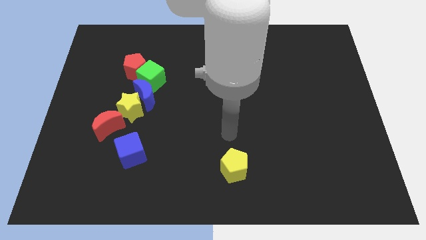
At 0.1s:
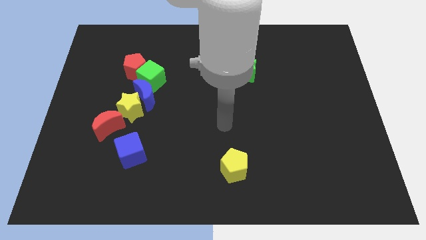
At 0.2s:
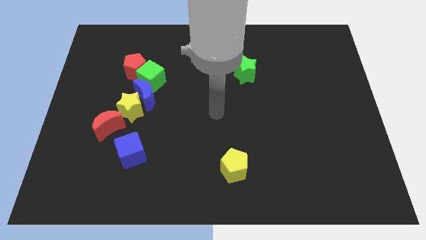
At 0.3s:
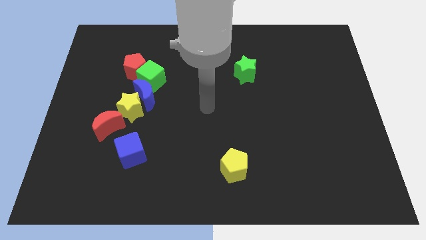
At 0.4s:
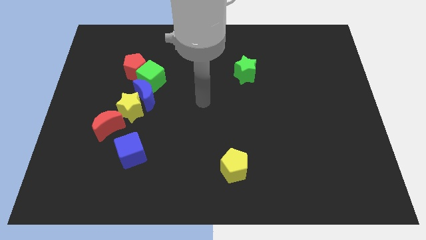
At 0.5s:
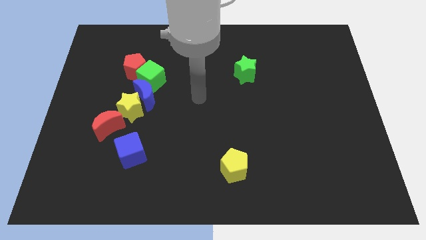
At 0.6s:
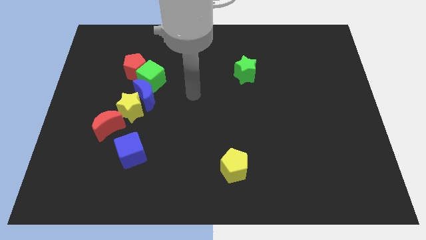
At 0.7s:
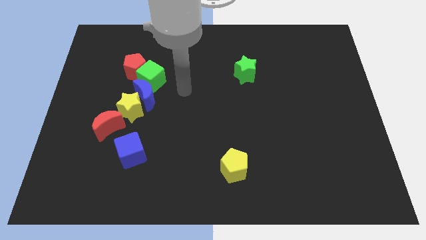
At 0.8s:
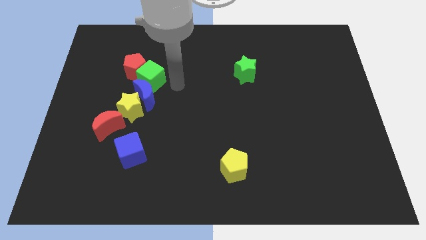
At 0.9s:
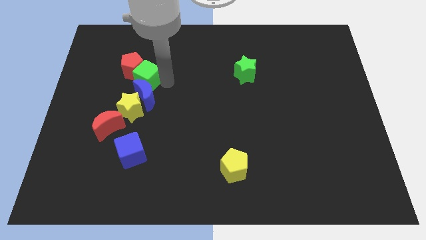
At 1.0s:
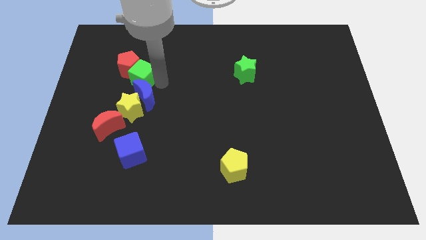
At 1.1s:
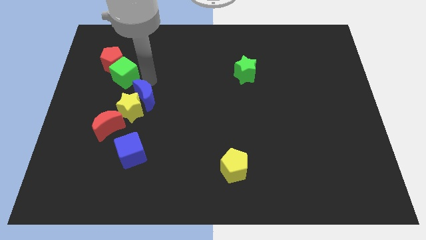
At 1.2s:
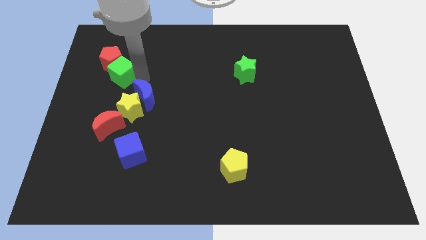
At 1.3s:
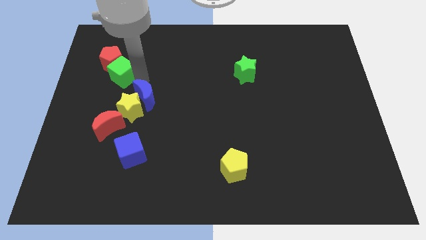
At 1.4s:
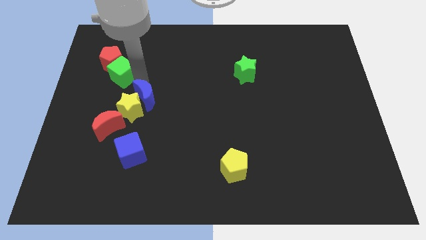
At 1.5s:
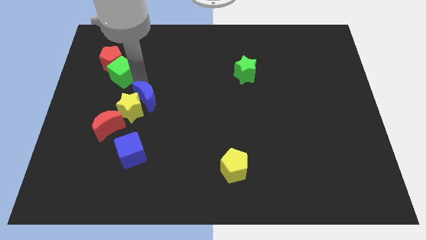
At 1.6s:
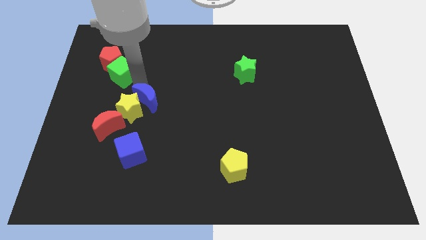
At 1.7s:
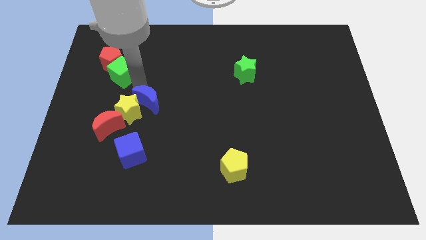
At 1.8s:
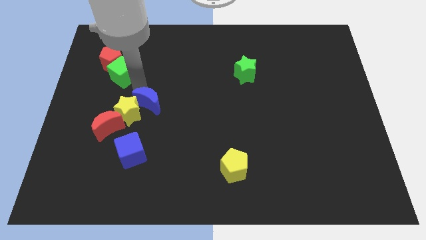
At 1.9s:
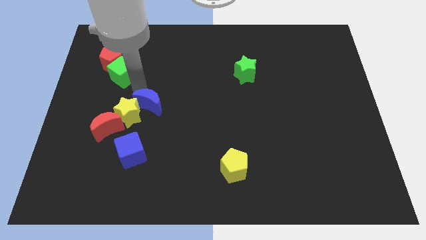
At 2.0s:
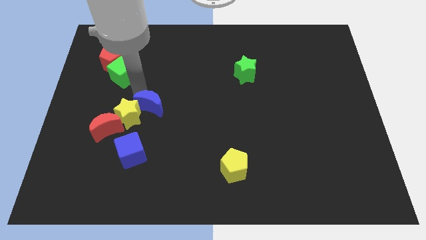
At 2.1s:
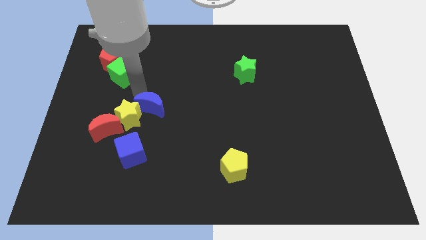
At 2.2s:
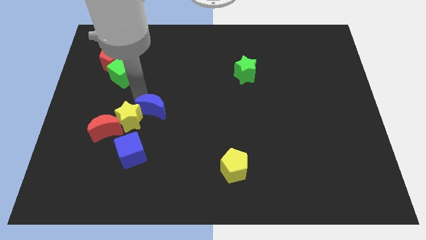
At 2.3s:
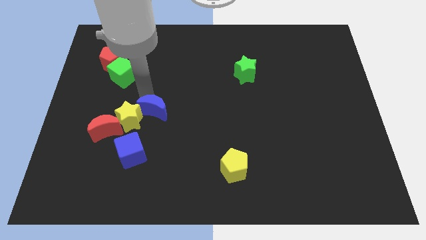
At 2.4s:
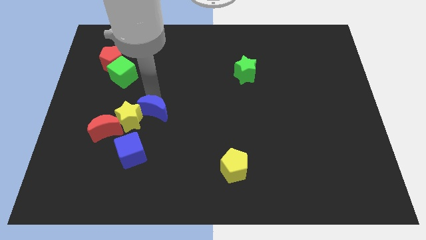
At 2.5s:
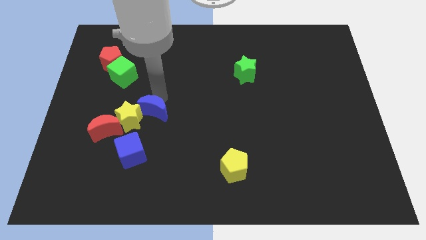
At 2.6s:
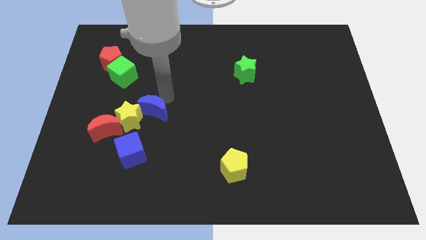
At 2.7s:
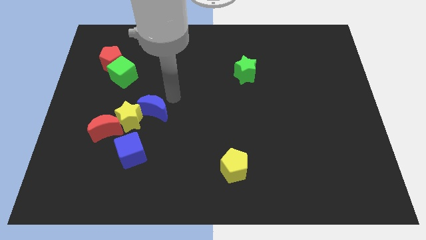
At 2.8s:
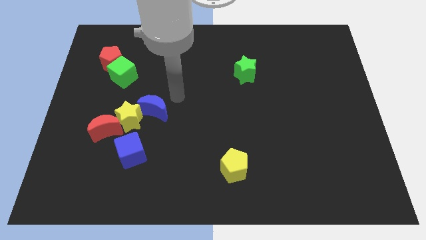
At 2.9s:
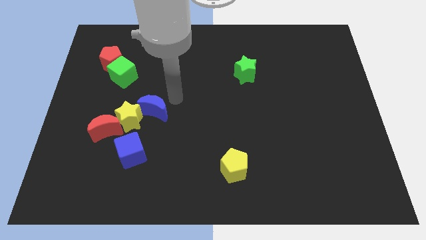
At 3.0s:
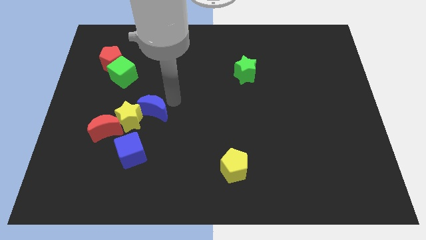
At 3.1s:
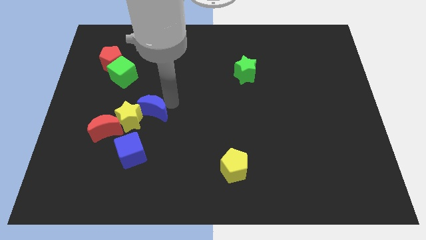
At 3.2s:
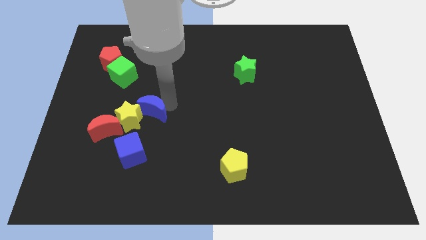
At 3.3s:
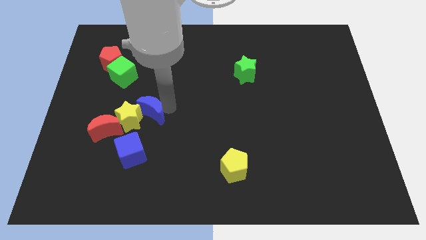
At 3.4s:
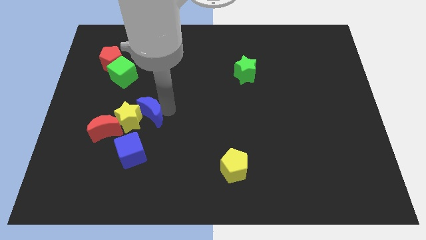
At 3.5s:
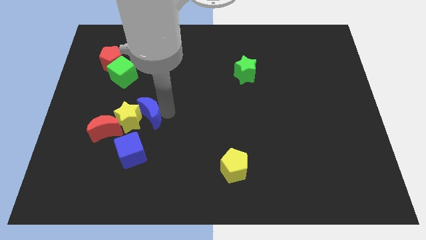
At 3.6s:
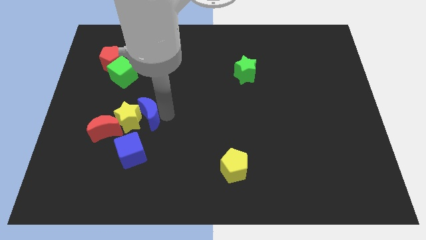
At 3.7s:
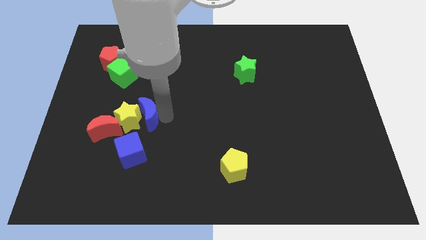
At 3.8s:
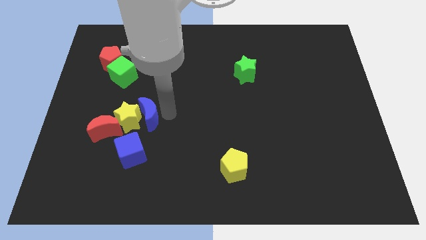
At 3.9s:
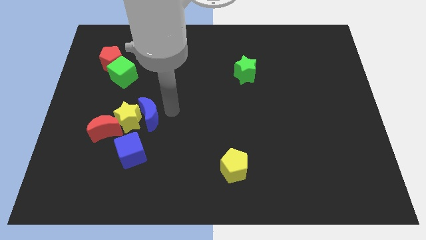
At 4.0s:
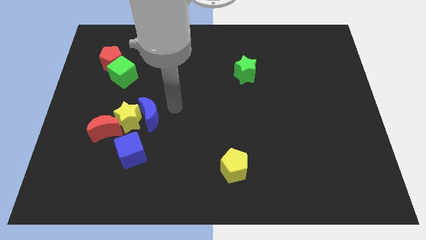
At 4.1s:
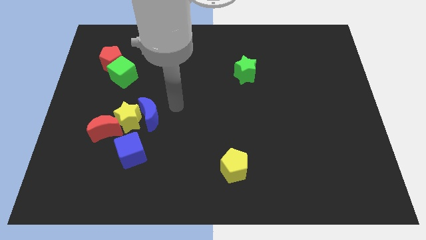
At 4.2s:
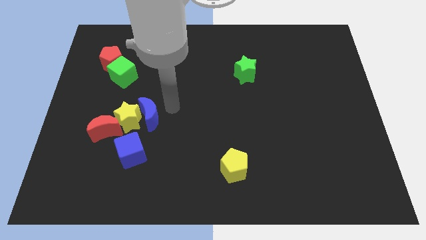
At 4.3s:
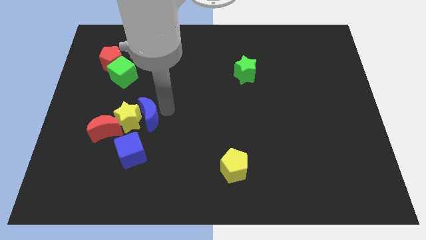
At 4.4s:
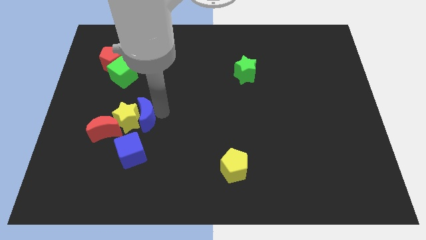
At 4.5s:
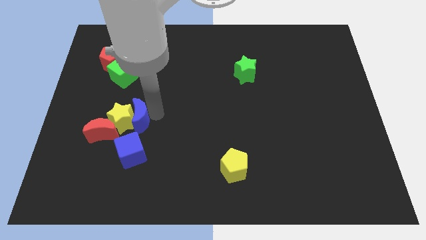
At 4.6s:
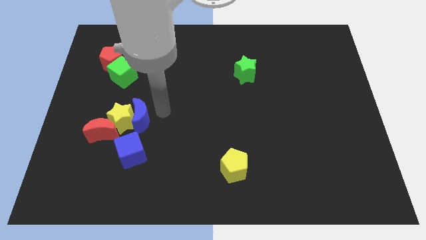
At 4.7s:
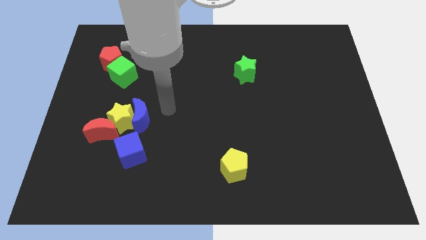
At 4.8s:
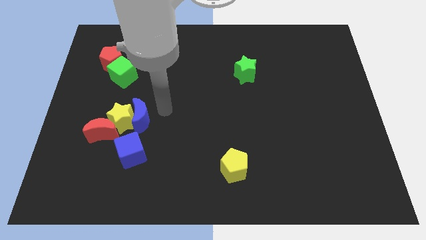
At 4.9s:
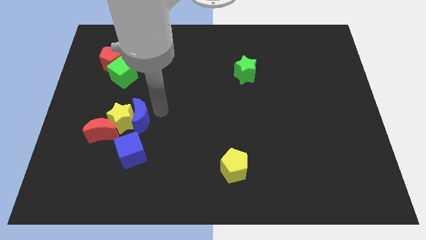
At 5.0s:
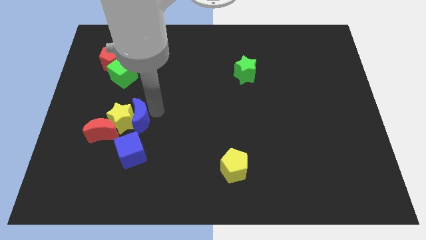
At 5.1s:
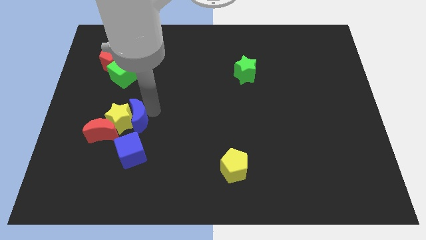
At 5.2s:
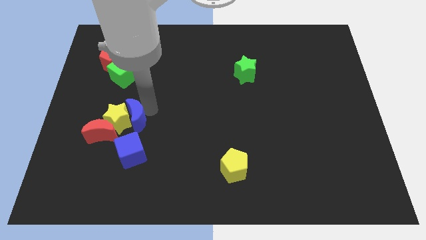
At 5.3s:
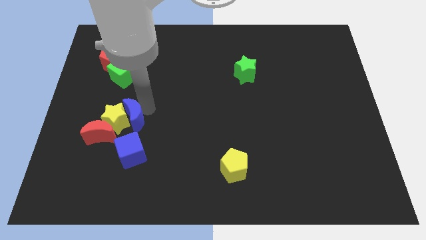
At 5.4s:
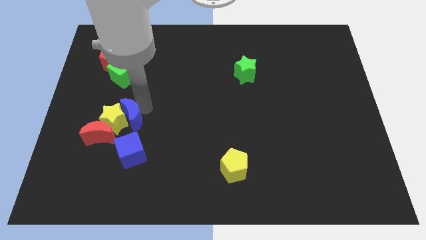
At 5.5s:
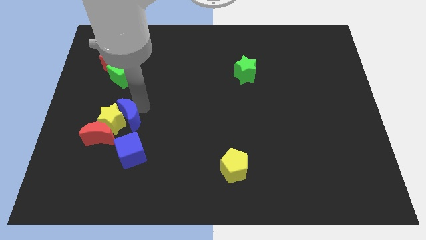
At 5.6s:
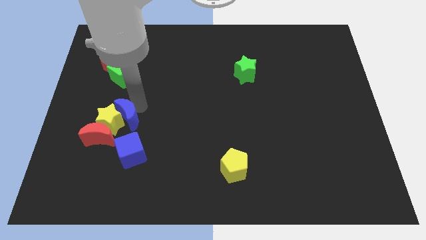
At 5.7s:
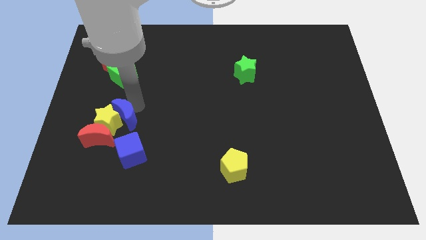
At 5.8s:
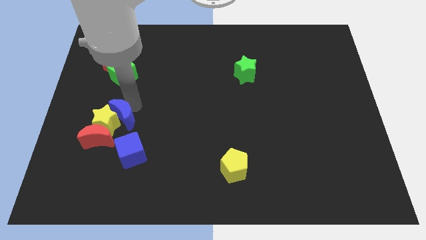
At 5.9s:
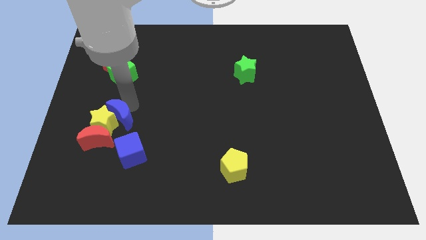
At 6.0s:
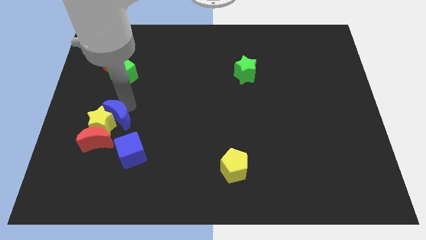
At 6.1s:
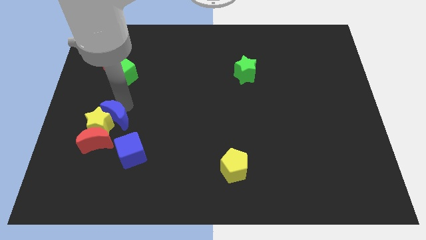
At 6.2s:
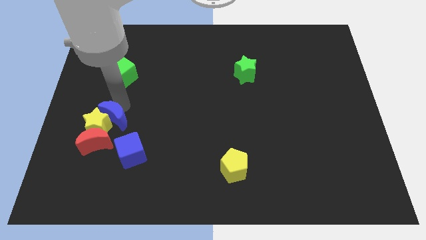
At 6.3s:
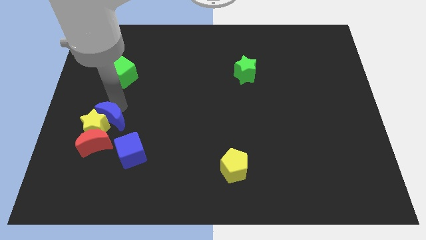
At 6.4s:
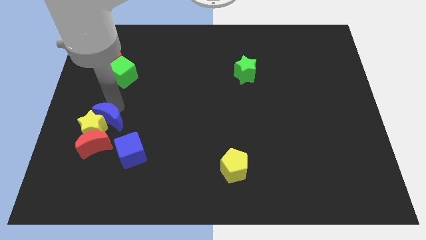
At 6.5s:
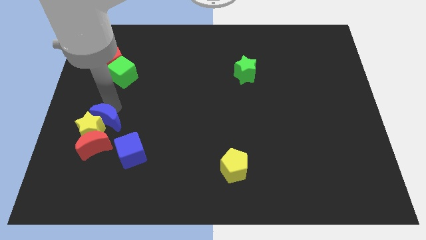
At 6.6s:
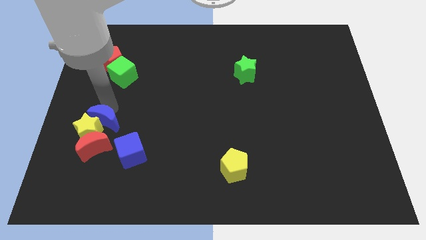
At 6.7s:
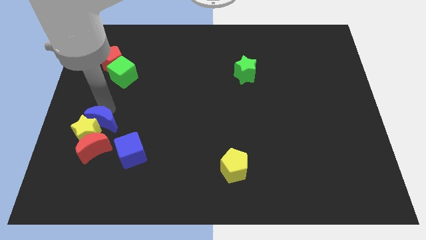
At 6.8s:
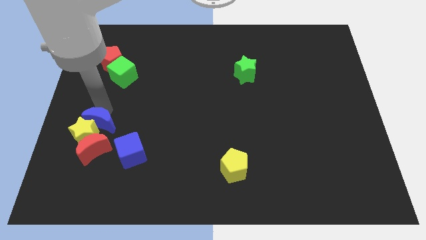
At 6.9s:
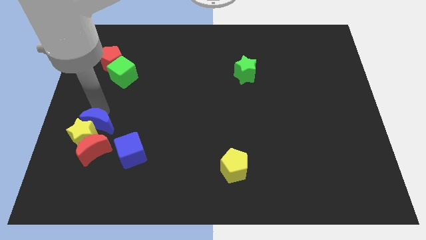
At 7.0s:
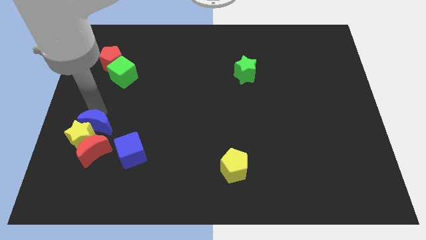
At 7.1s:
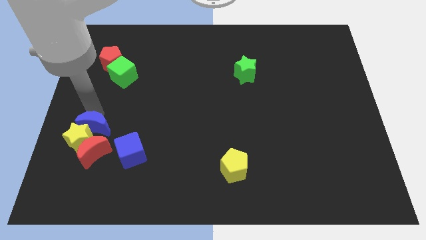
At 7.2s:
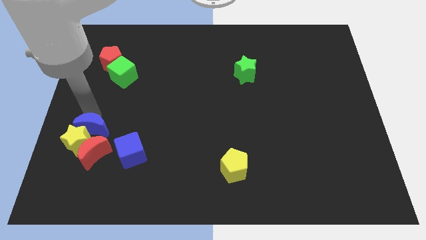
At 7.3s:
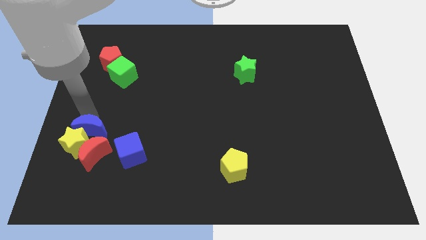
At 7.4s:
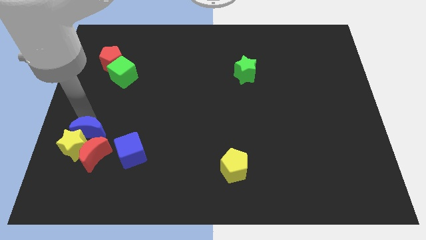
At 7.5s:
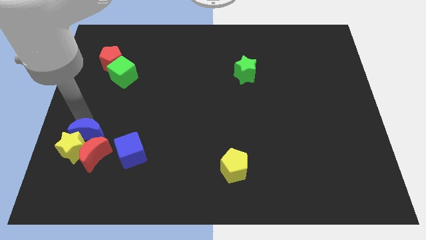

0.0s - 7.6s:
slide the blue moon next to the red moon
